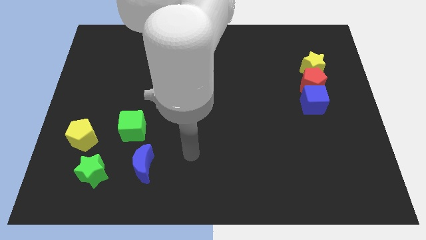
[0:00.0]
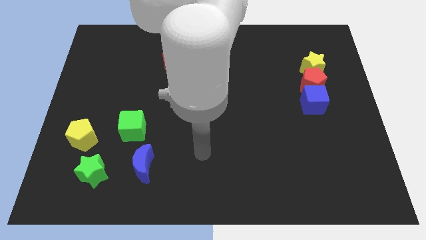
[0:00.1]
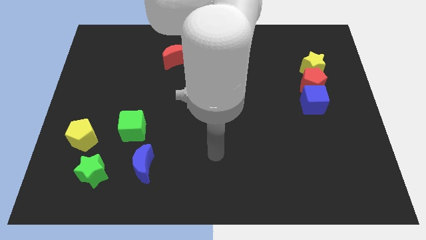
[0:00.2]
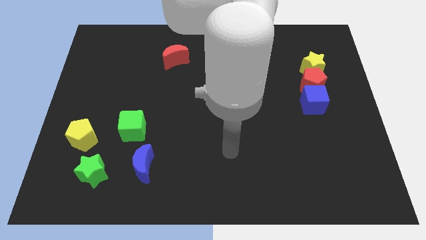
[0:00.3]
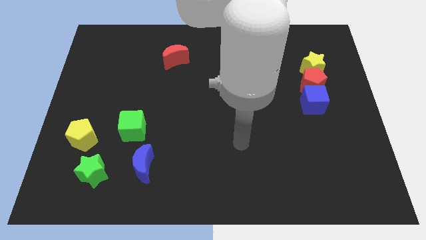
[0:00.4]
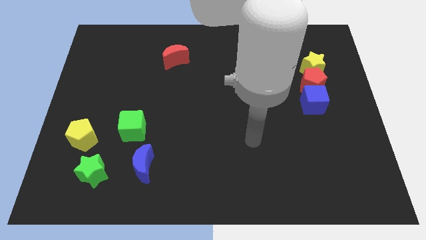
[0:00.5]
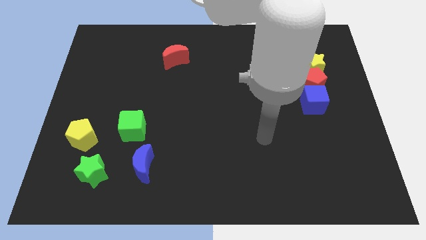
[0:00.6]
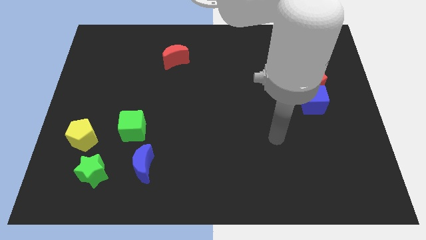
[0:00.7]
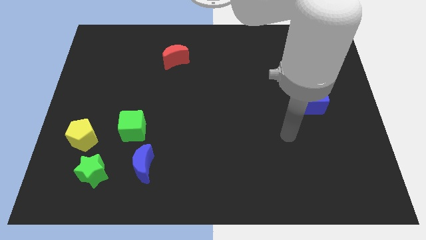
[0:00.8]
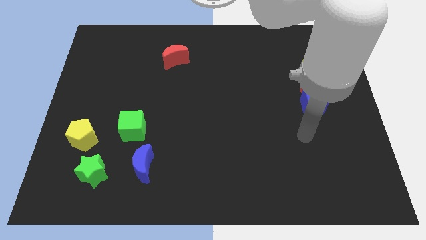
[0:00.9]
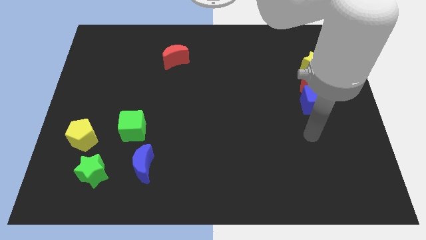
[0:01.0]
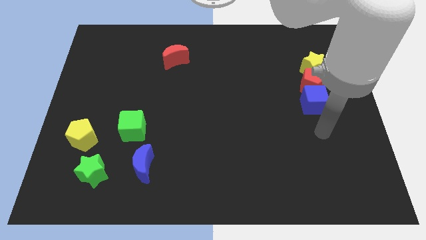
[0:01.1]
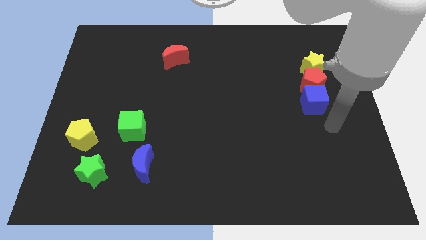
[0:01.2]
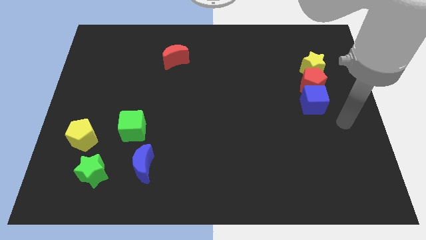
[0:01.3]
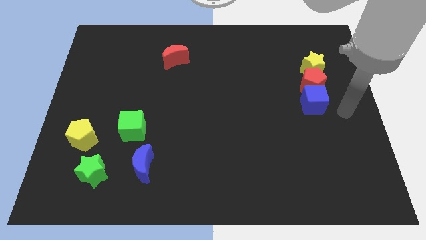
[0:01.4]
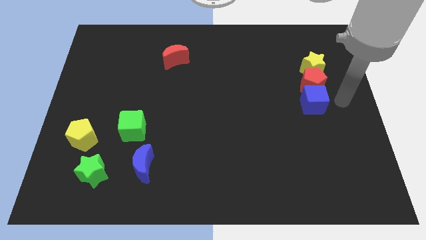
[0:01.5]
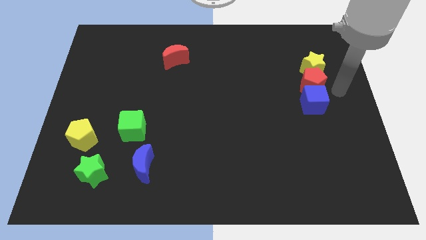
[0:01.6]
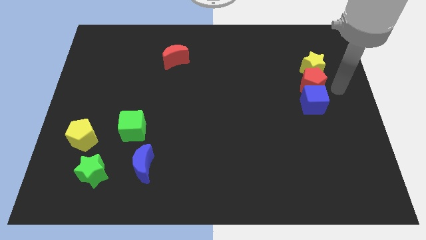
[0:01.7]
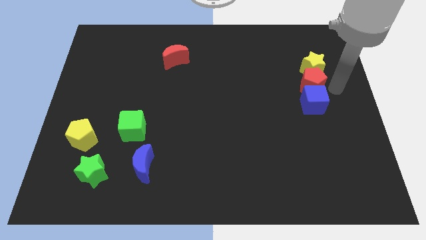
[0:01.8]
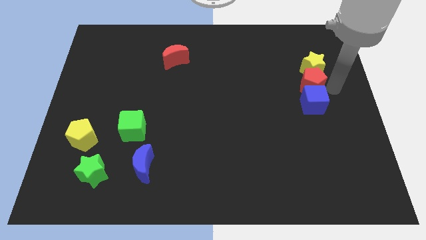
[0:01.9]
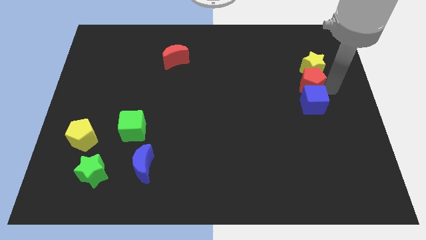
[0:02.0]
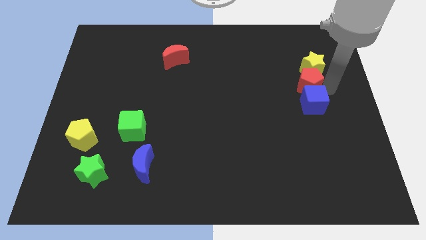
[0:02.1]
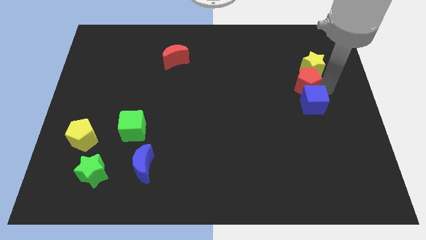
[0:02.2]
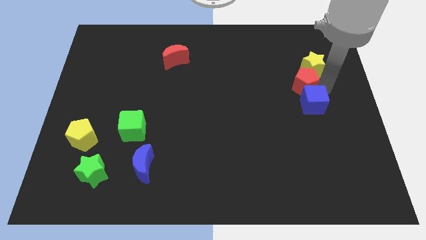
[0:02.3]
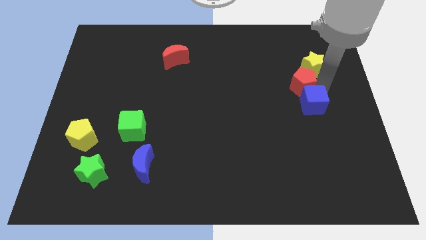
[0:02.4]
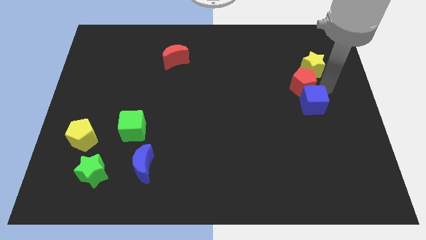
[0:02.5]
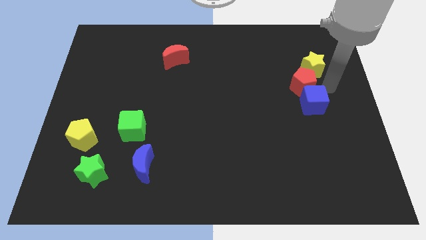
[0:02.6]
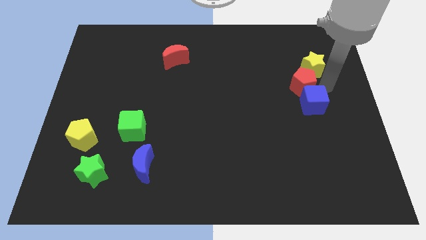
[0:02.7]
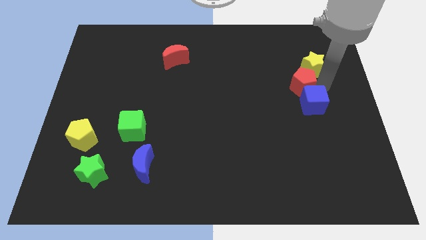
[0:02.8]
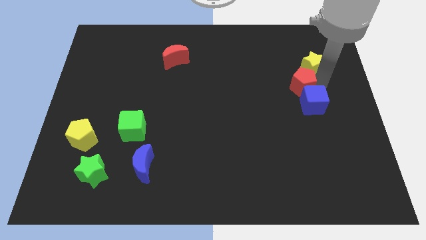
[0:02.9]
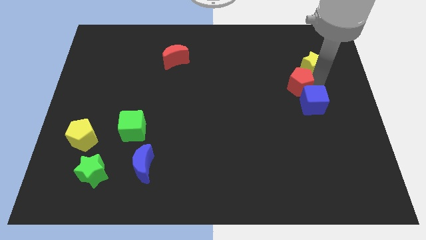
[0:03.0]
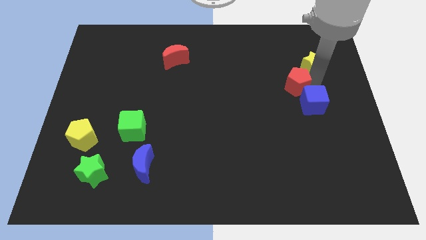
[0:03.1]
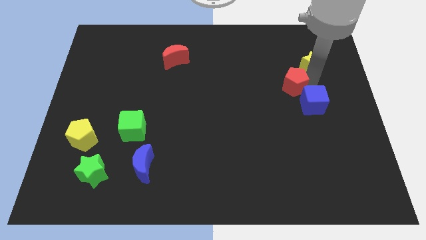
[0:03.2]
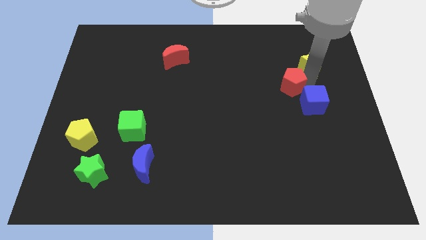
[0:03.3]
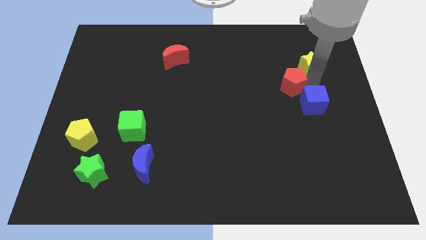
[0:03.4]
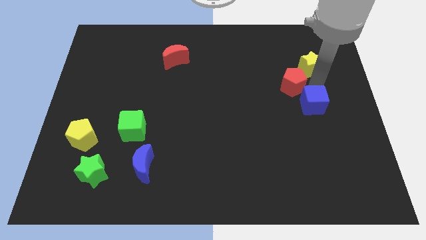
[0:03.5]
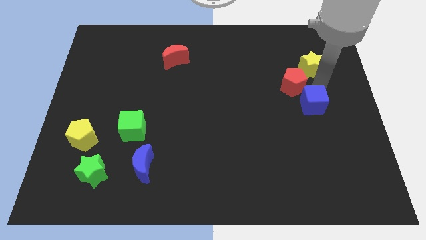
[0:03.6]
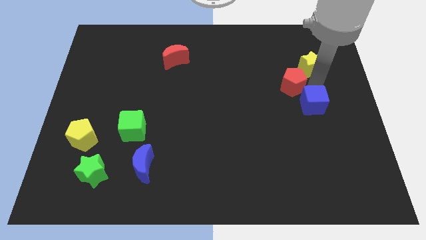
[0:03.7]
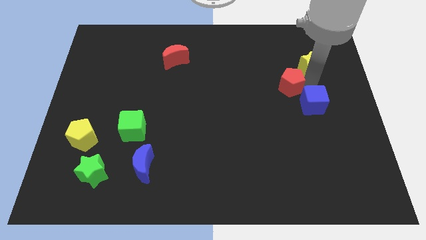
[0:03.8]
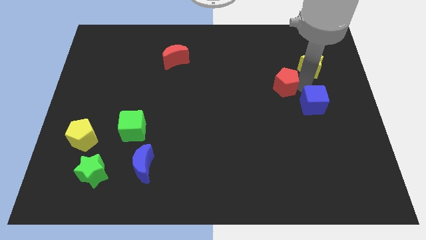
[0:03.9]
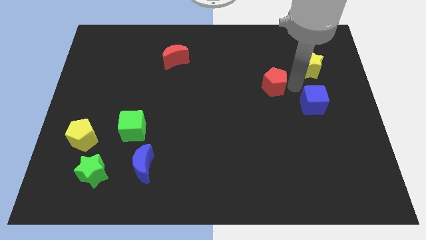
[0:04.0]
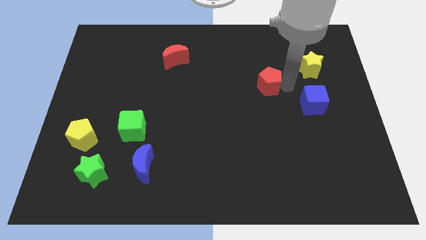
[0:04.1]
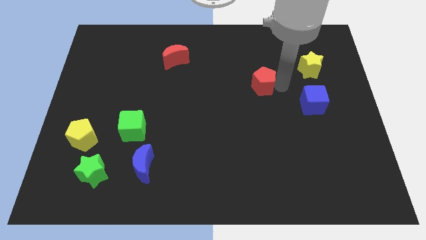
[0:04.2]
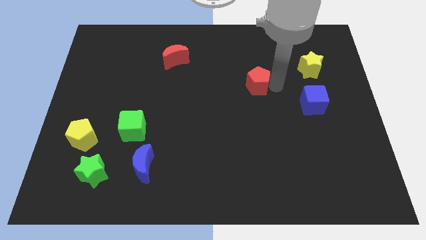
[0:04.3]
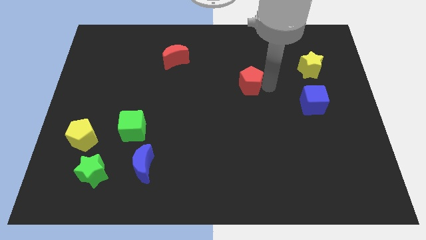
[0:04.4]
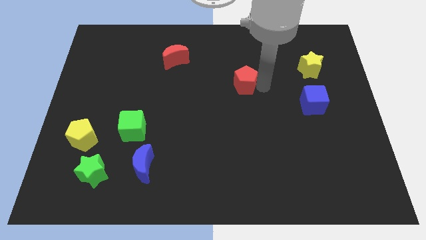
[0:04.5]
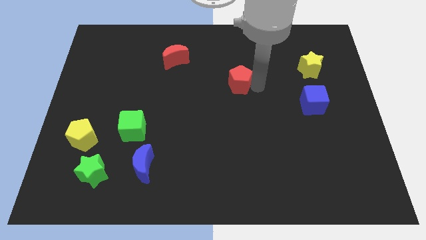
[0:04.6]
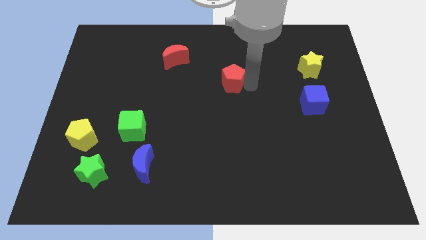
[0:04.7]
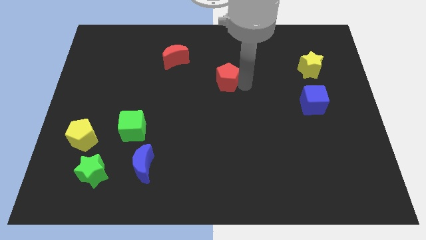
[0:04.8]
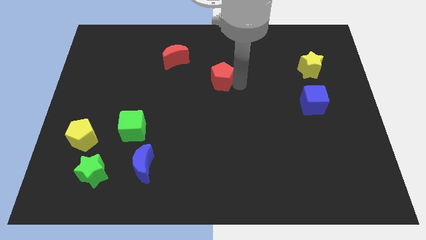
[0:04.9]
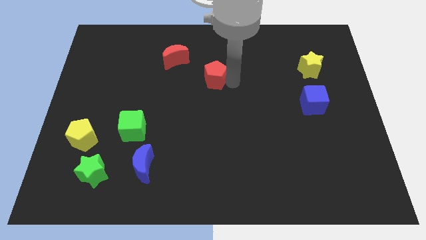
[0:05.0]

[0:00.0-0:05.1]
put the red pentagon diagonally down and to the right of the red moon

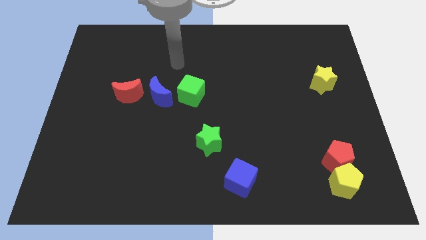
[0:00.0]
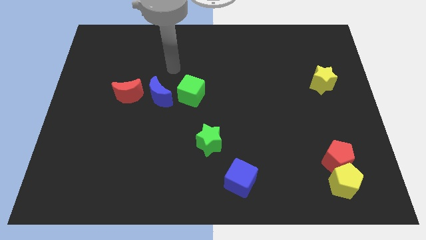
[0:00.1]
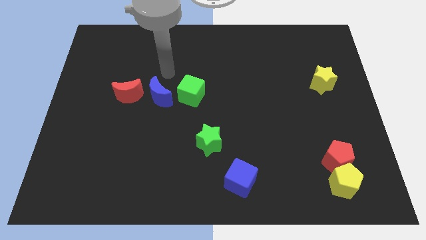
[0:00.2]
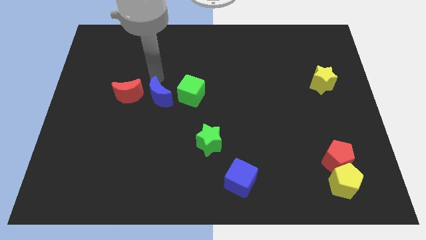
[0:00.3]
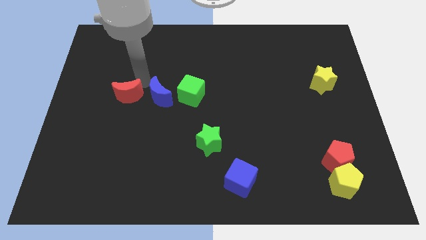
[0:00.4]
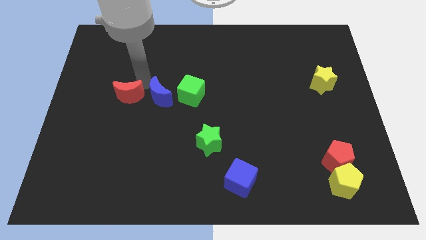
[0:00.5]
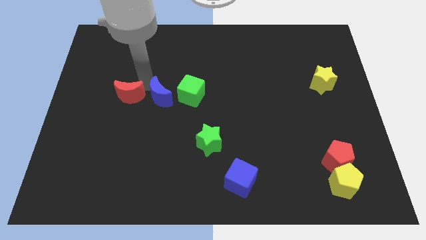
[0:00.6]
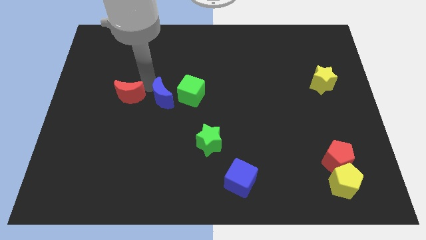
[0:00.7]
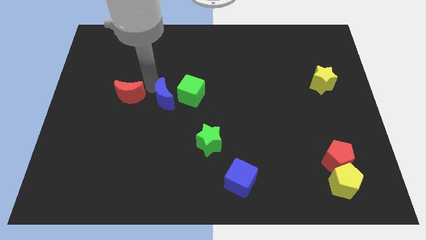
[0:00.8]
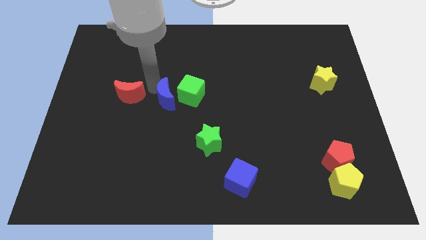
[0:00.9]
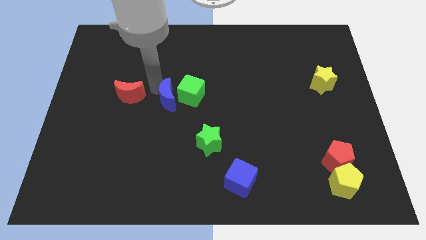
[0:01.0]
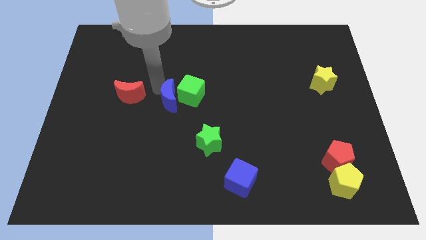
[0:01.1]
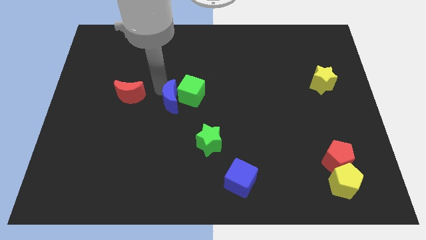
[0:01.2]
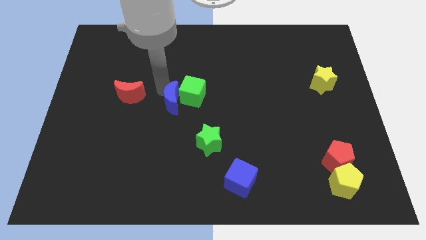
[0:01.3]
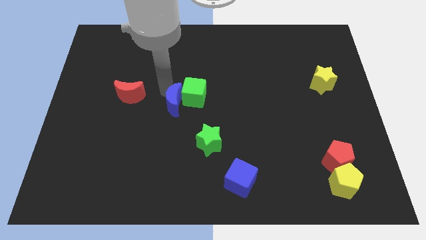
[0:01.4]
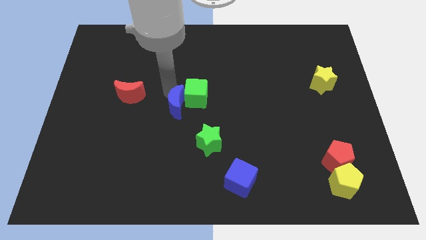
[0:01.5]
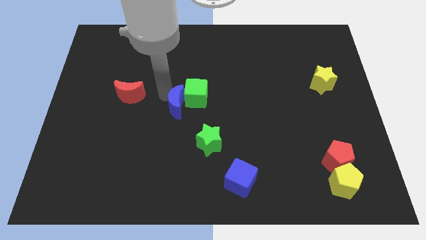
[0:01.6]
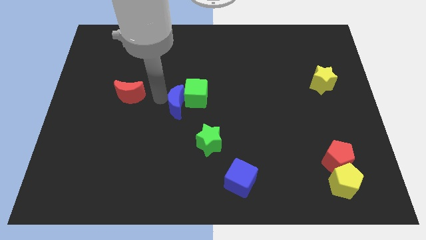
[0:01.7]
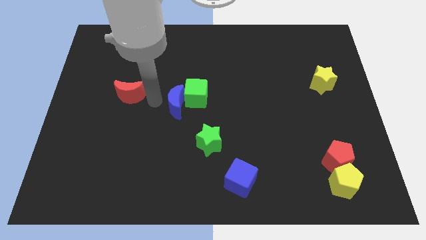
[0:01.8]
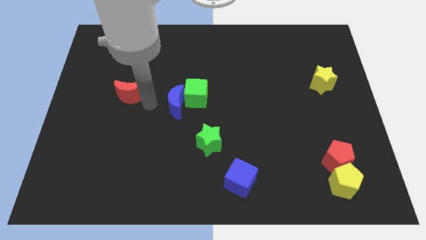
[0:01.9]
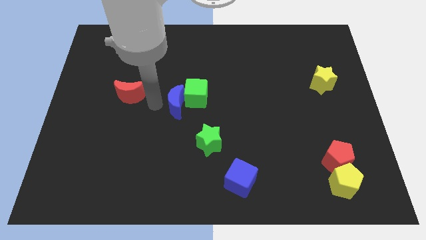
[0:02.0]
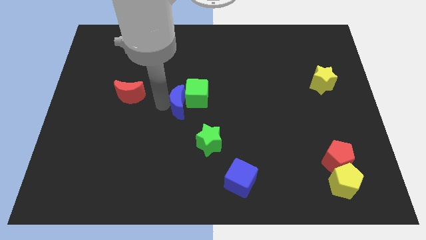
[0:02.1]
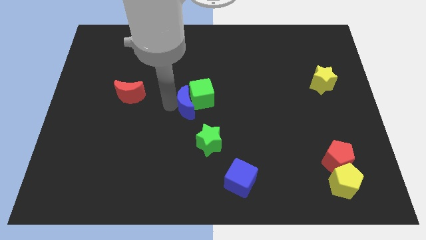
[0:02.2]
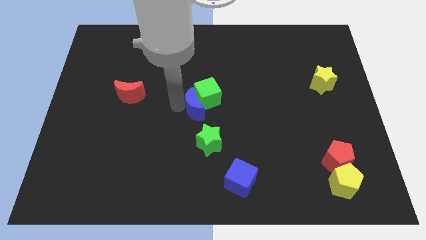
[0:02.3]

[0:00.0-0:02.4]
slide the blue moon above the green star

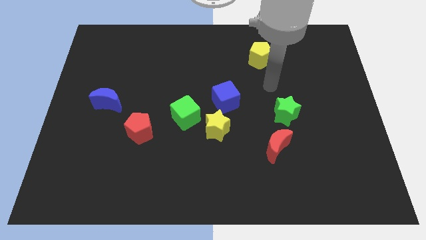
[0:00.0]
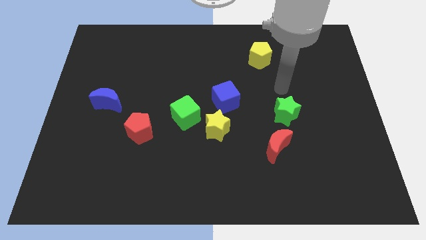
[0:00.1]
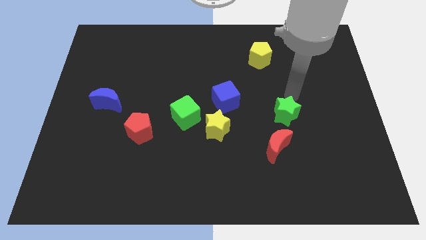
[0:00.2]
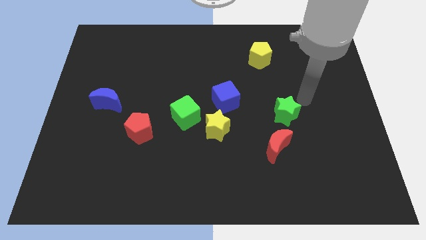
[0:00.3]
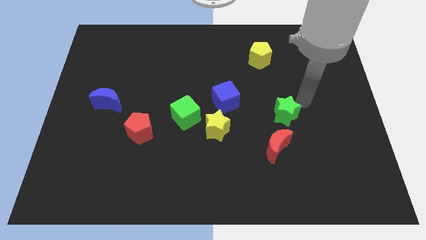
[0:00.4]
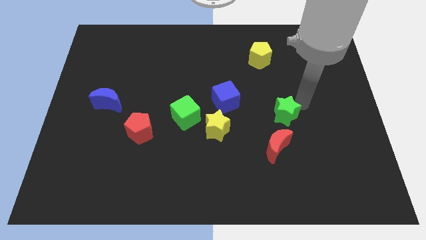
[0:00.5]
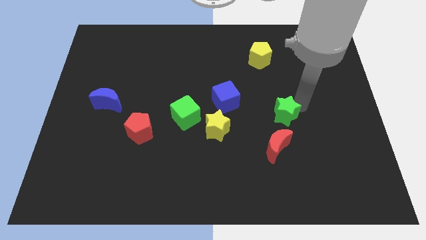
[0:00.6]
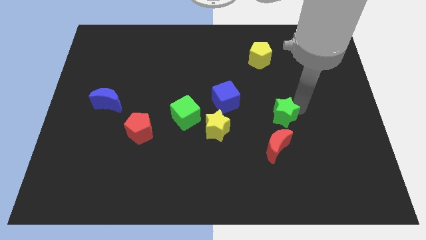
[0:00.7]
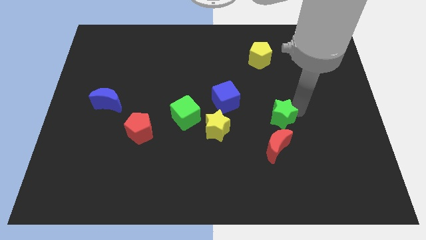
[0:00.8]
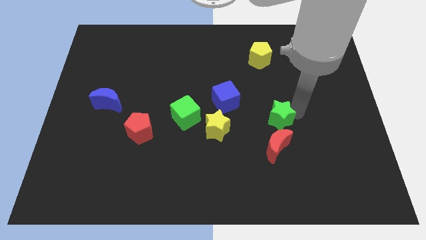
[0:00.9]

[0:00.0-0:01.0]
put the green star just right of the yellow star
